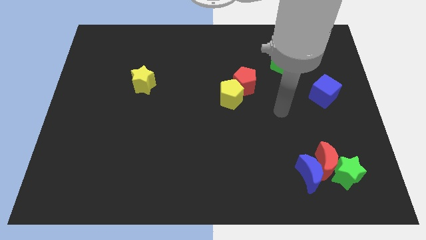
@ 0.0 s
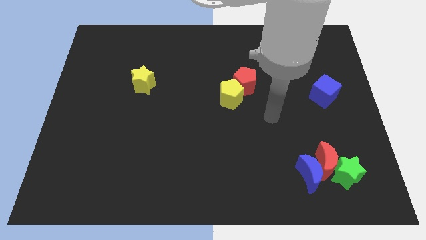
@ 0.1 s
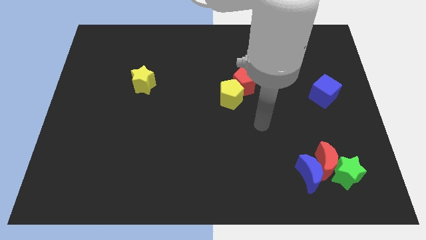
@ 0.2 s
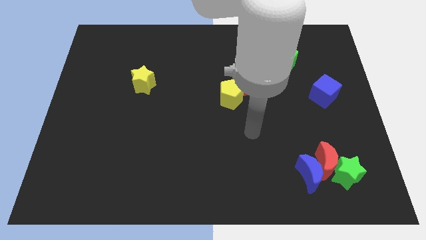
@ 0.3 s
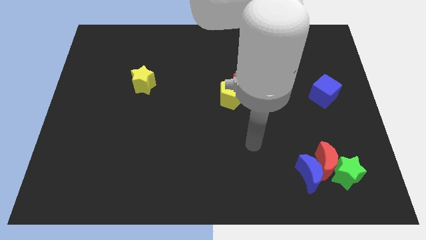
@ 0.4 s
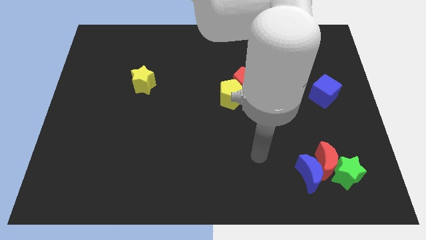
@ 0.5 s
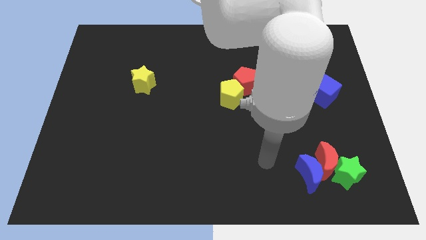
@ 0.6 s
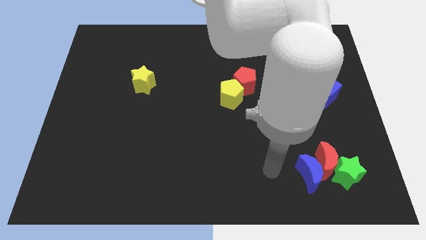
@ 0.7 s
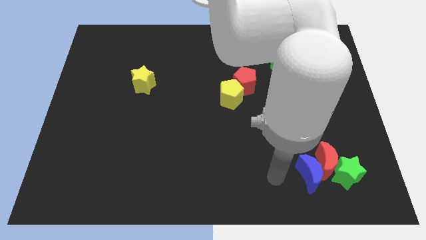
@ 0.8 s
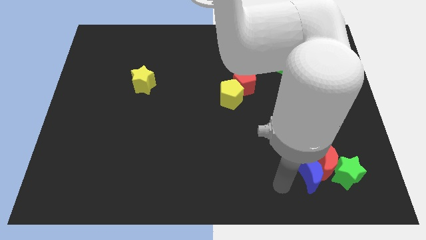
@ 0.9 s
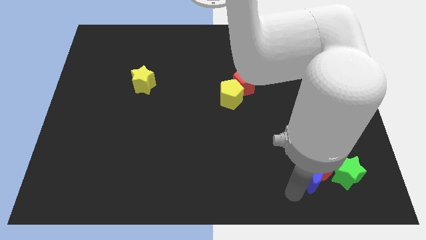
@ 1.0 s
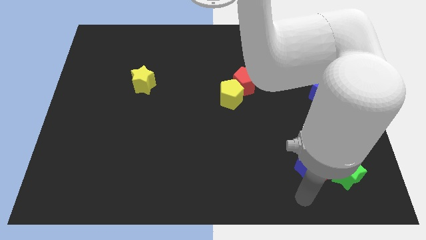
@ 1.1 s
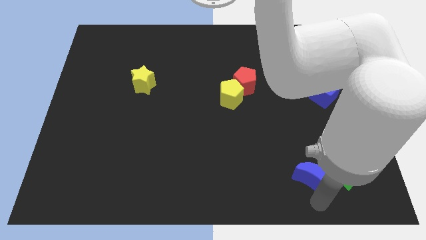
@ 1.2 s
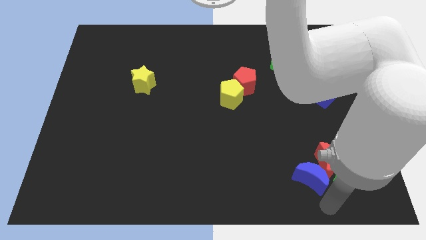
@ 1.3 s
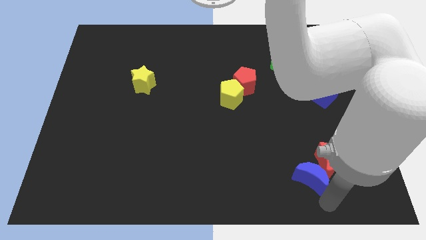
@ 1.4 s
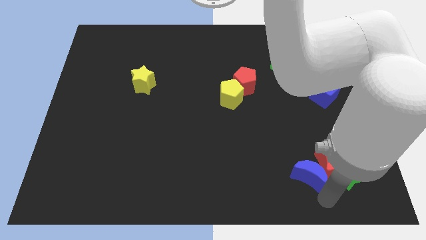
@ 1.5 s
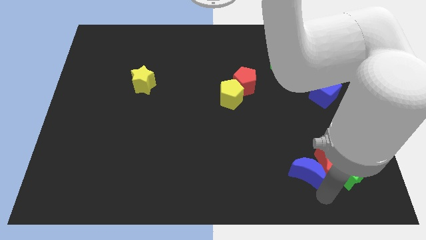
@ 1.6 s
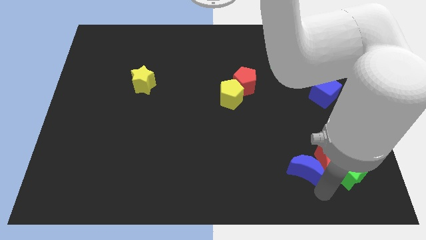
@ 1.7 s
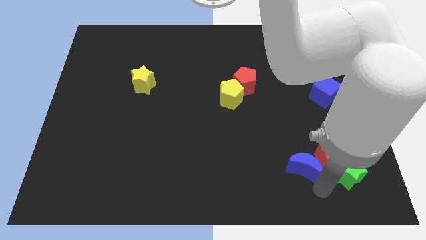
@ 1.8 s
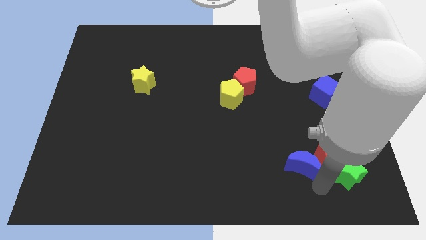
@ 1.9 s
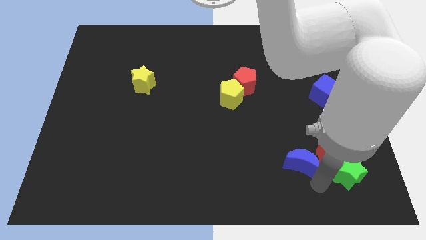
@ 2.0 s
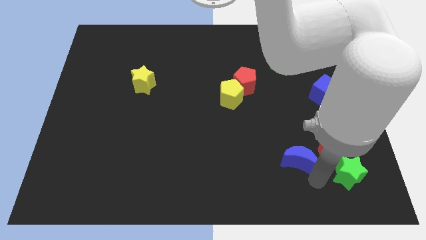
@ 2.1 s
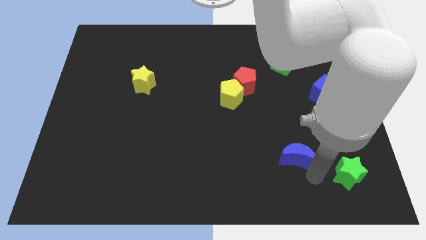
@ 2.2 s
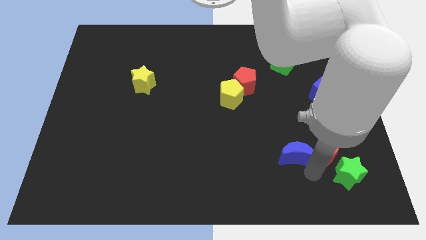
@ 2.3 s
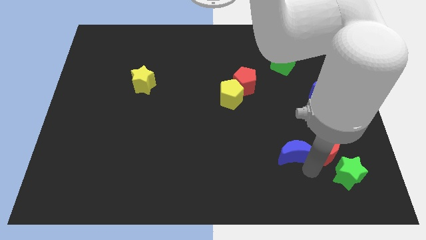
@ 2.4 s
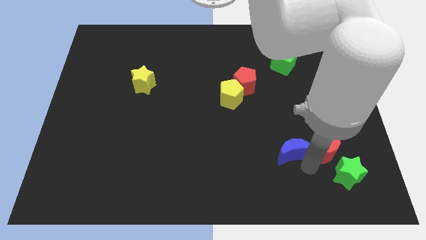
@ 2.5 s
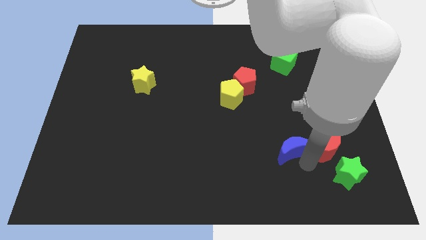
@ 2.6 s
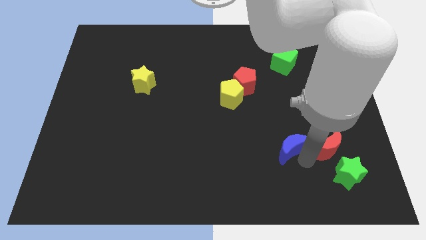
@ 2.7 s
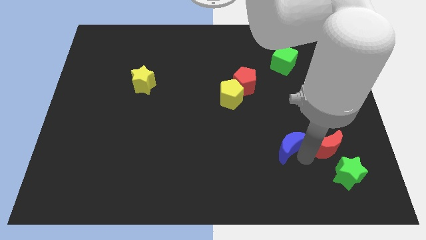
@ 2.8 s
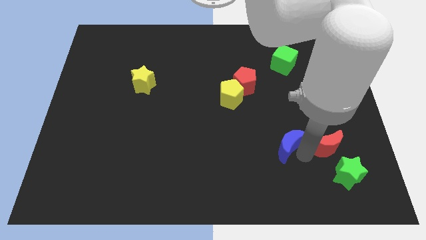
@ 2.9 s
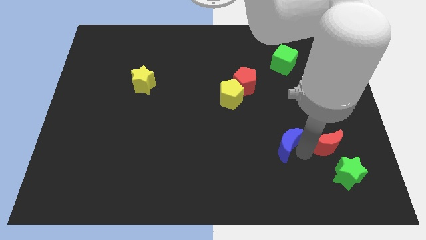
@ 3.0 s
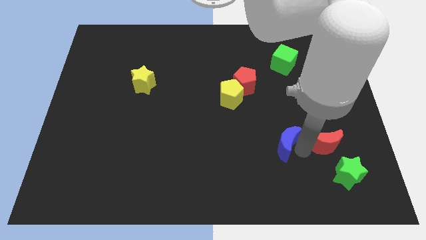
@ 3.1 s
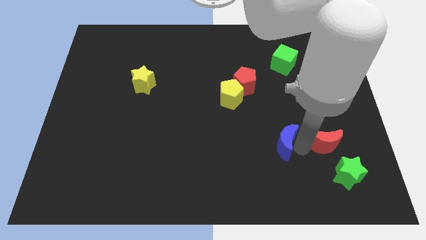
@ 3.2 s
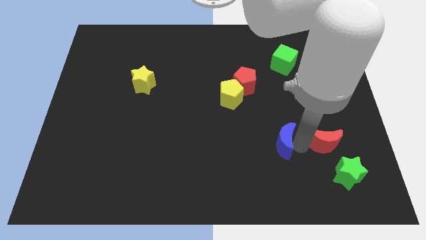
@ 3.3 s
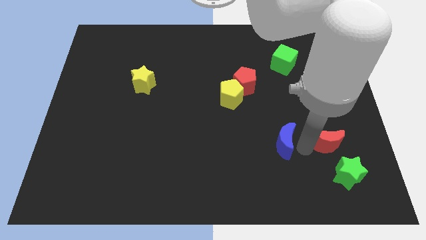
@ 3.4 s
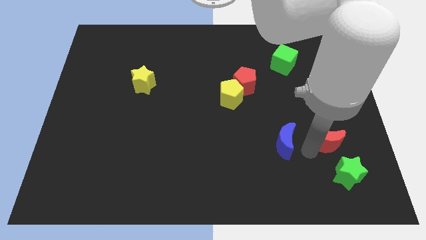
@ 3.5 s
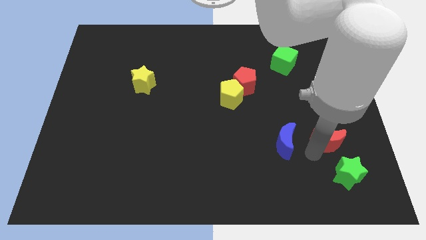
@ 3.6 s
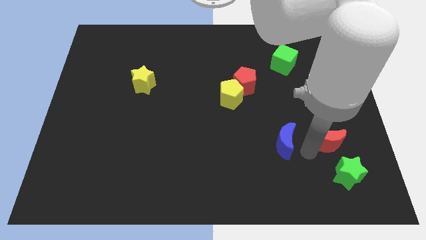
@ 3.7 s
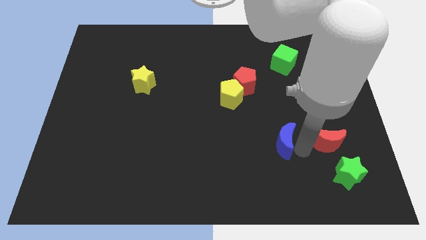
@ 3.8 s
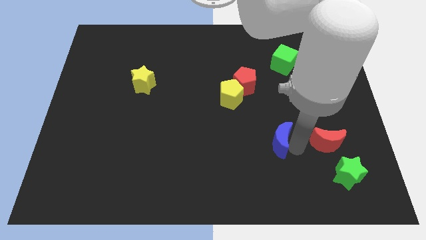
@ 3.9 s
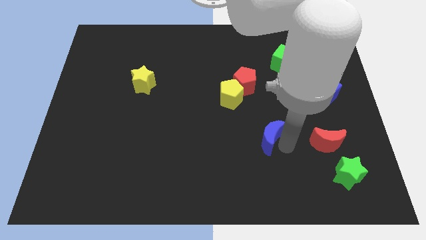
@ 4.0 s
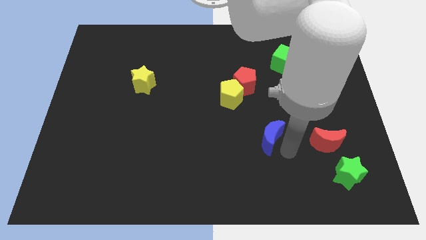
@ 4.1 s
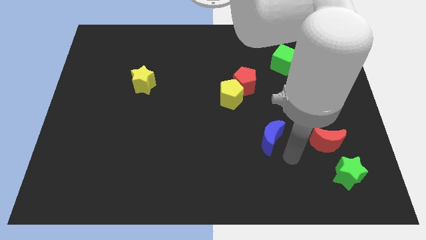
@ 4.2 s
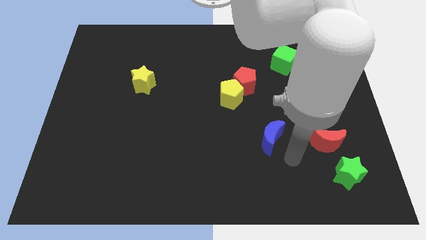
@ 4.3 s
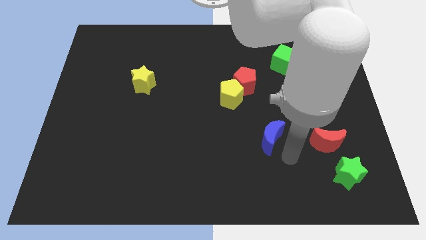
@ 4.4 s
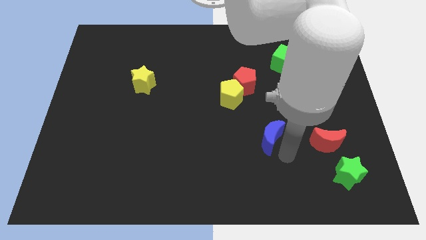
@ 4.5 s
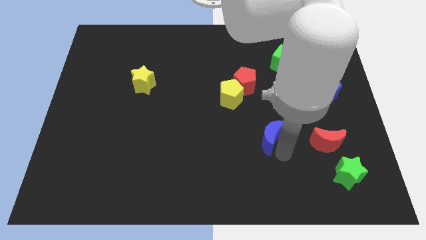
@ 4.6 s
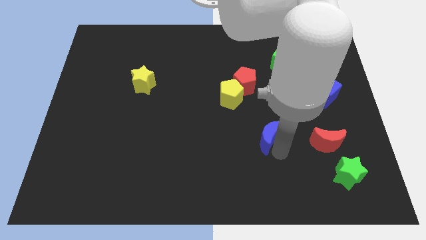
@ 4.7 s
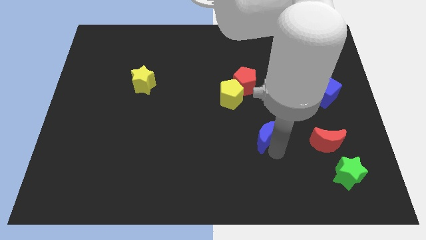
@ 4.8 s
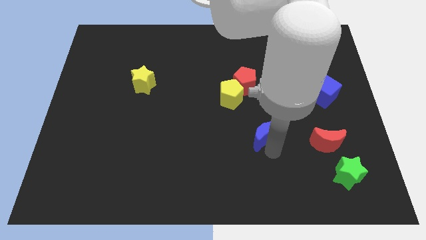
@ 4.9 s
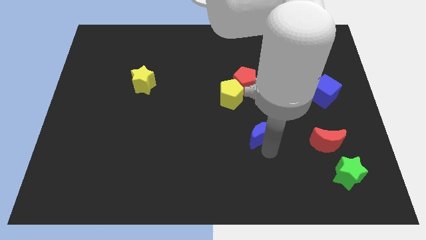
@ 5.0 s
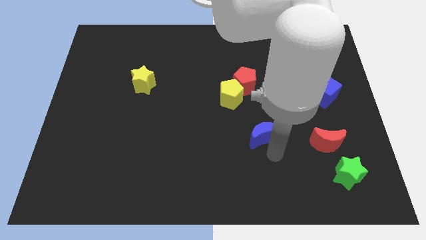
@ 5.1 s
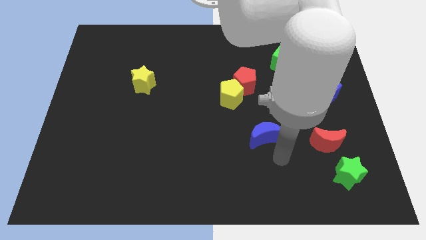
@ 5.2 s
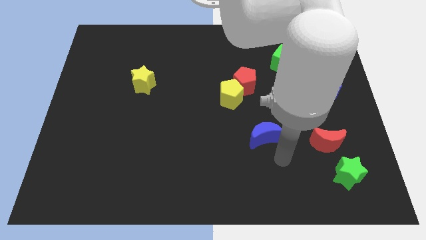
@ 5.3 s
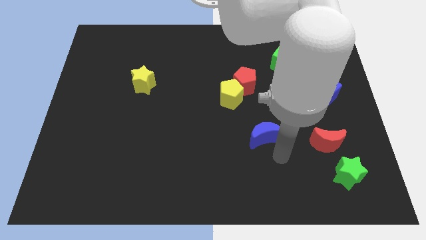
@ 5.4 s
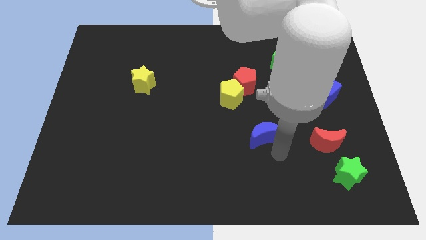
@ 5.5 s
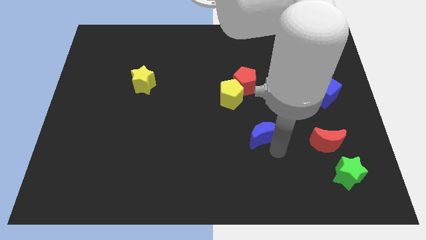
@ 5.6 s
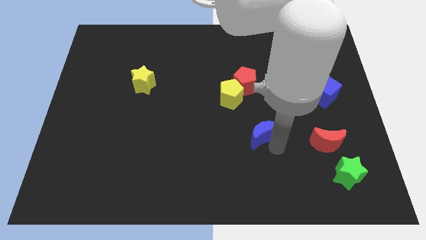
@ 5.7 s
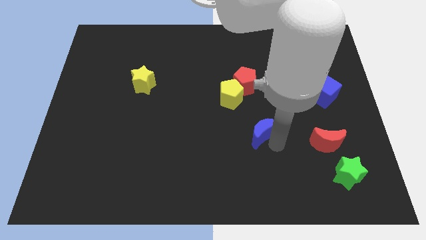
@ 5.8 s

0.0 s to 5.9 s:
put the blue moon below the red pentagon

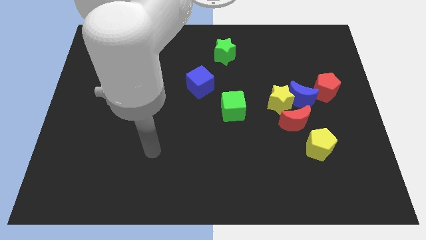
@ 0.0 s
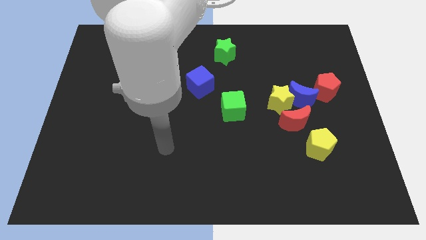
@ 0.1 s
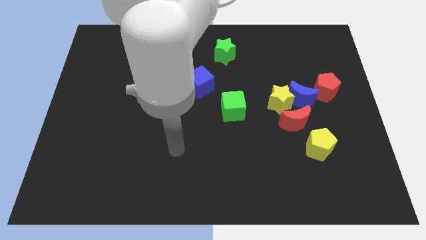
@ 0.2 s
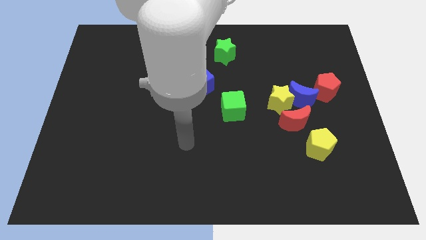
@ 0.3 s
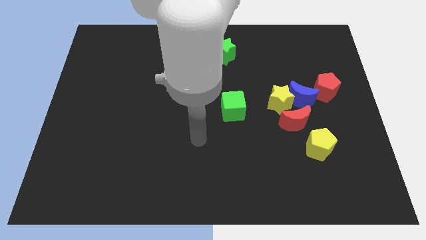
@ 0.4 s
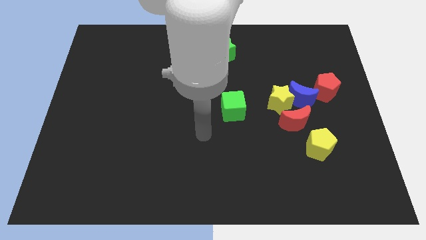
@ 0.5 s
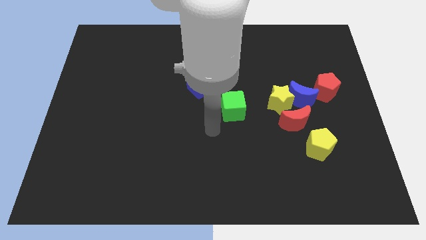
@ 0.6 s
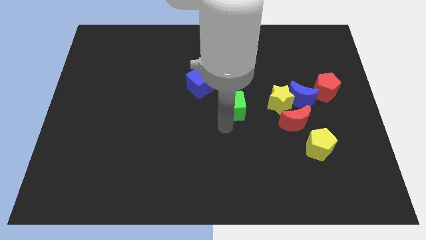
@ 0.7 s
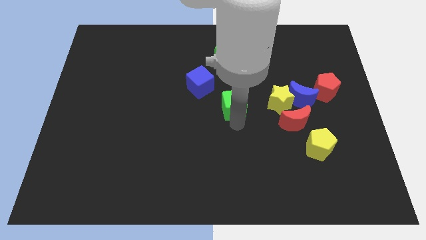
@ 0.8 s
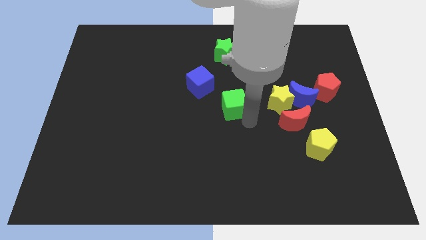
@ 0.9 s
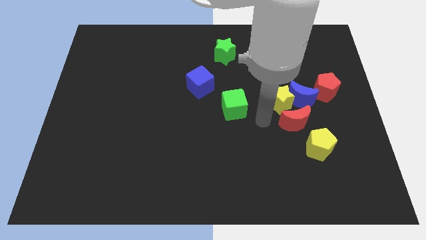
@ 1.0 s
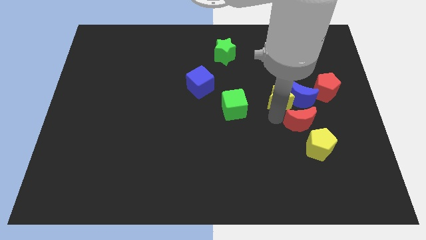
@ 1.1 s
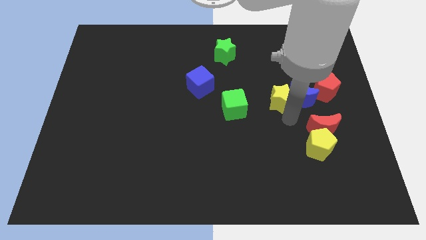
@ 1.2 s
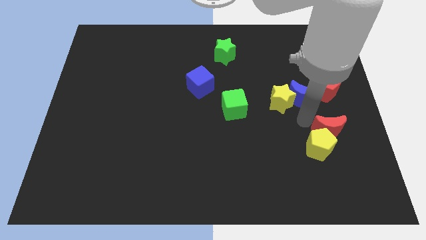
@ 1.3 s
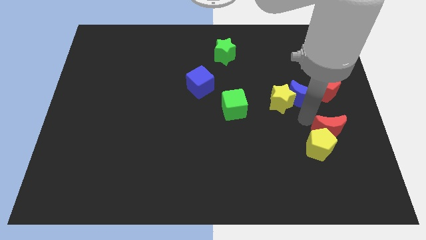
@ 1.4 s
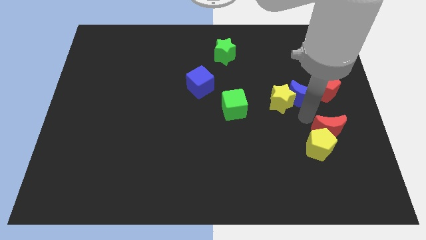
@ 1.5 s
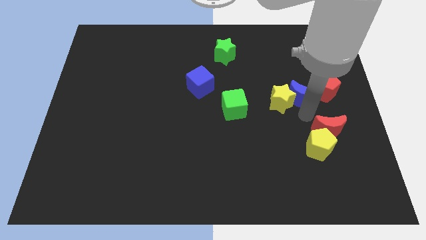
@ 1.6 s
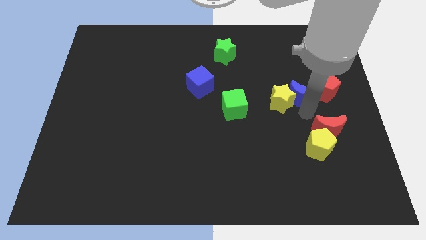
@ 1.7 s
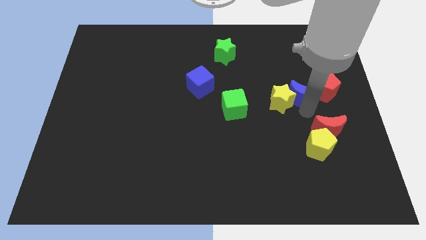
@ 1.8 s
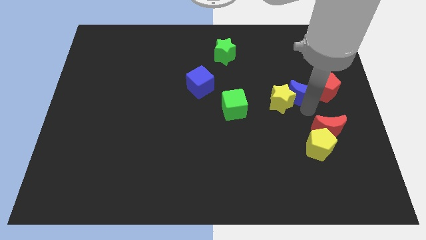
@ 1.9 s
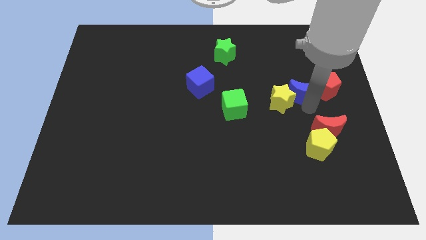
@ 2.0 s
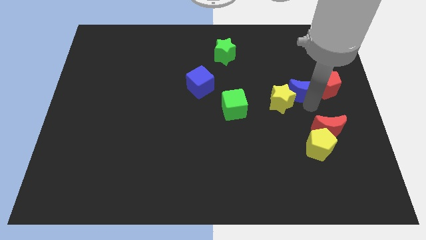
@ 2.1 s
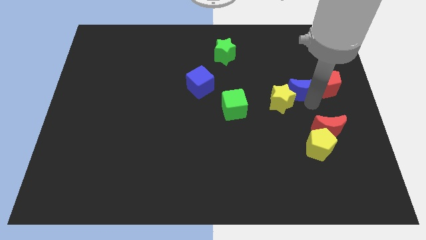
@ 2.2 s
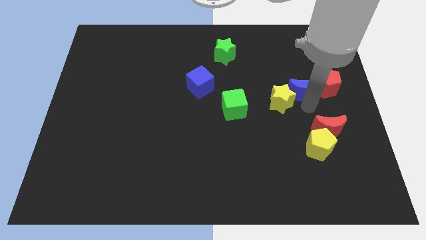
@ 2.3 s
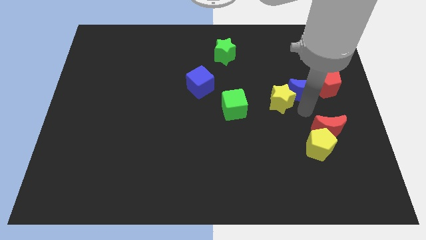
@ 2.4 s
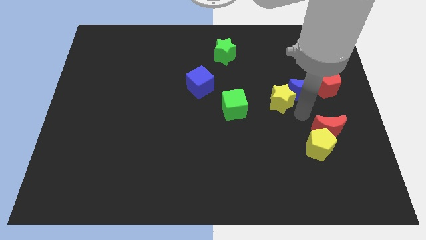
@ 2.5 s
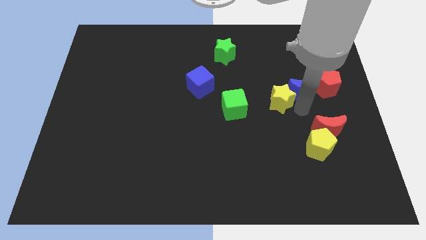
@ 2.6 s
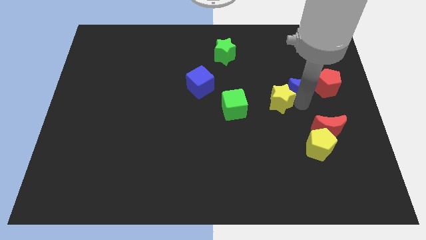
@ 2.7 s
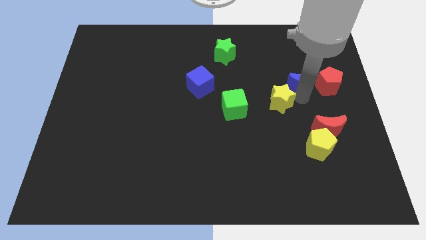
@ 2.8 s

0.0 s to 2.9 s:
push the blue moon to the top left side of the red pentagon
